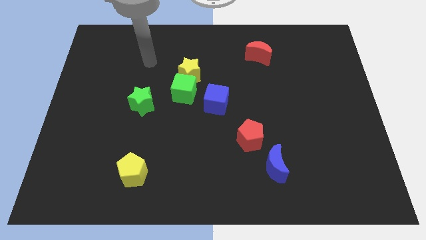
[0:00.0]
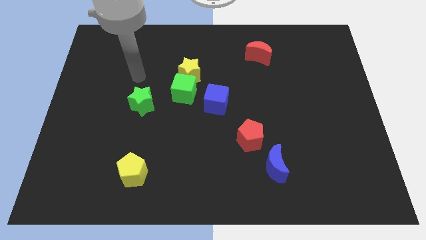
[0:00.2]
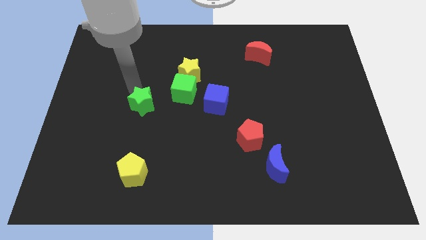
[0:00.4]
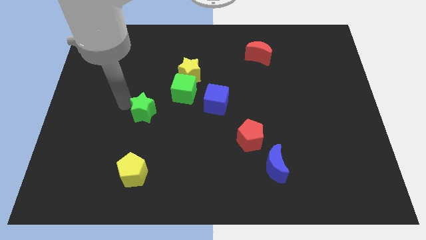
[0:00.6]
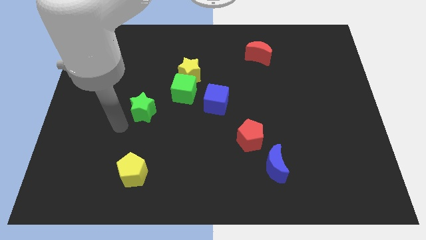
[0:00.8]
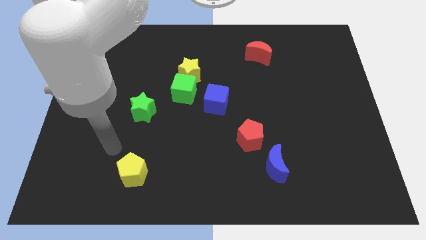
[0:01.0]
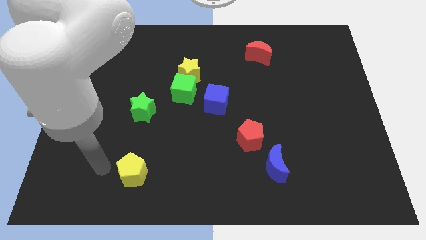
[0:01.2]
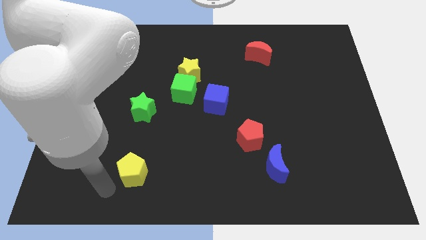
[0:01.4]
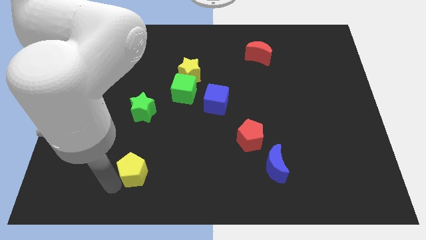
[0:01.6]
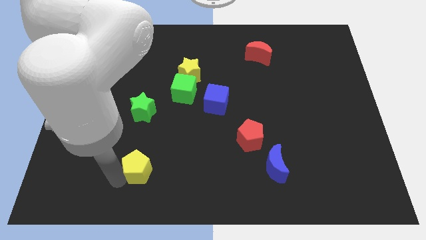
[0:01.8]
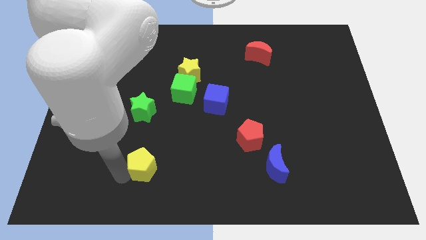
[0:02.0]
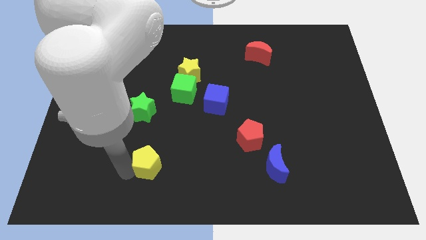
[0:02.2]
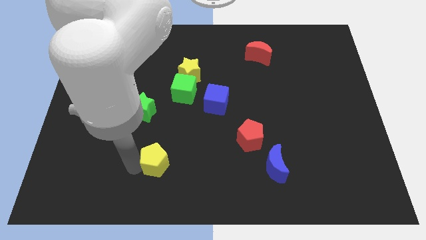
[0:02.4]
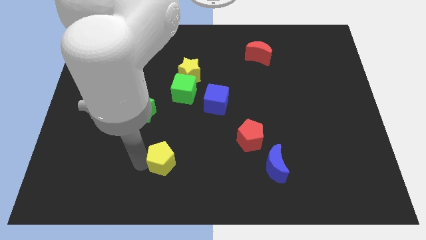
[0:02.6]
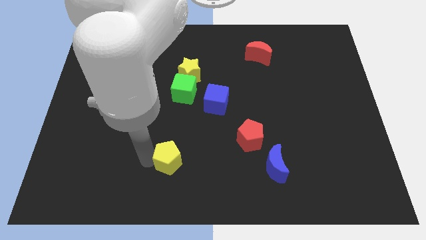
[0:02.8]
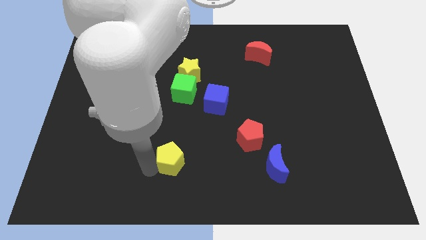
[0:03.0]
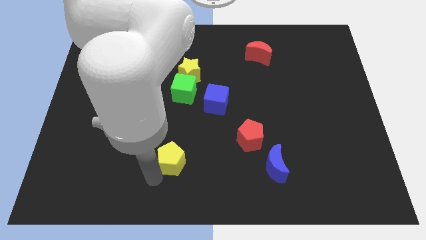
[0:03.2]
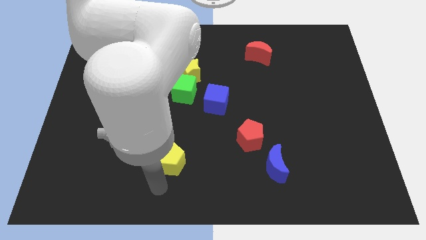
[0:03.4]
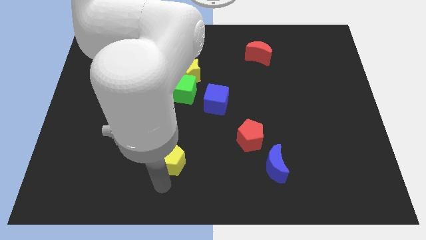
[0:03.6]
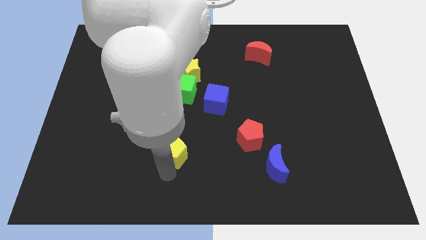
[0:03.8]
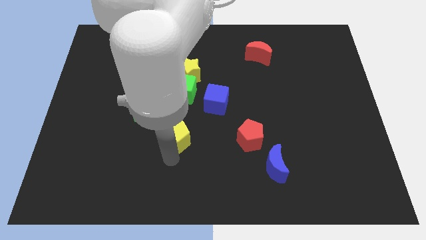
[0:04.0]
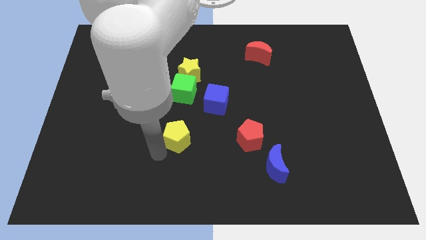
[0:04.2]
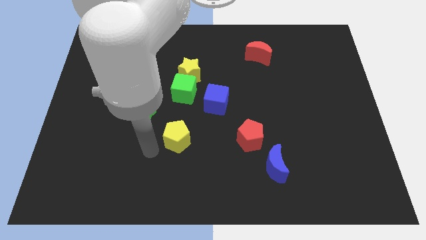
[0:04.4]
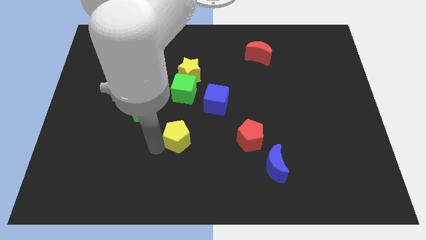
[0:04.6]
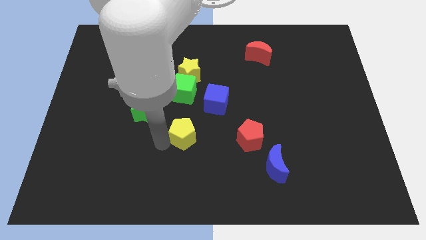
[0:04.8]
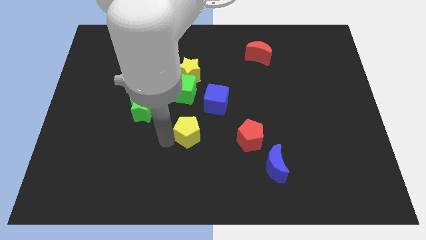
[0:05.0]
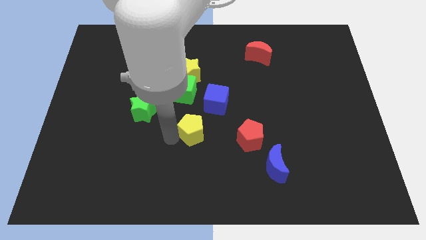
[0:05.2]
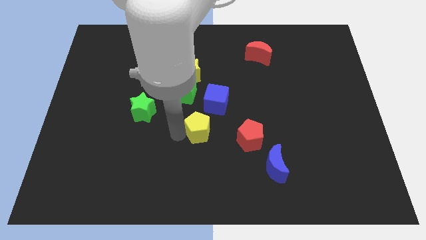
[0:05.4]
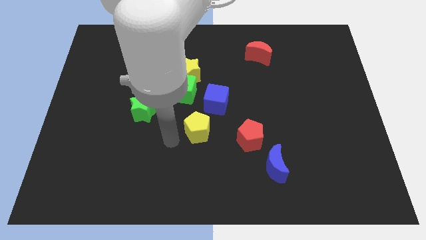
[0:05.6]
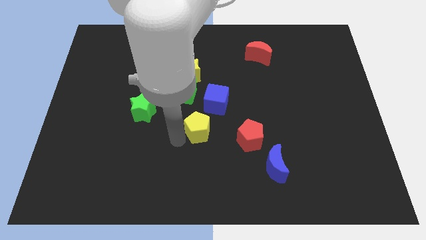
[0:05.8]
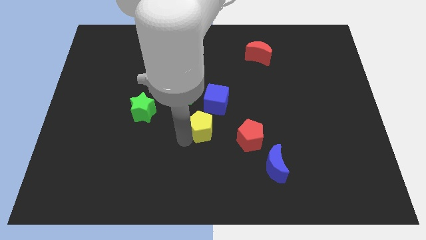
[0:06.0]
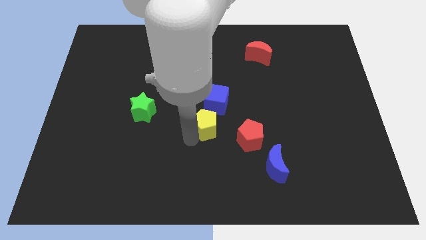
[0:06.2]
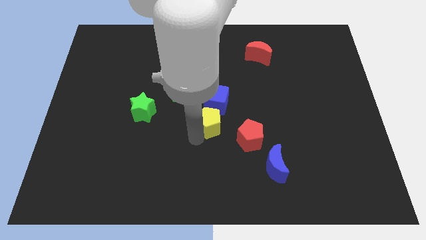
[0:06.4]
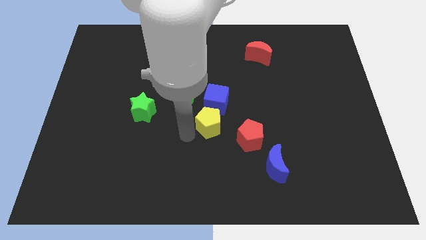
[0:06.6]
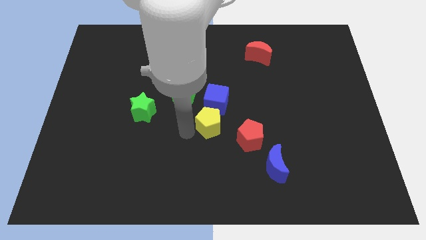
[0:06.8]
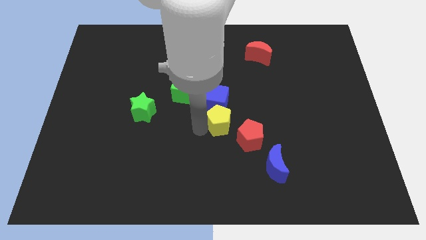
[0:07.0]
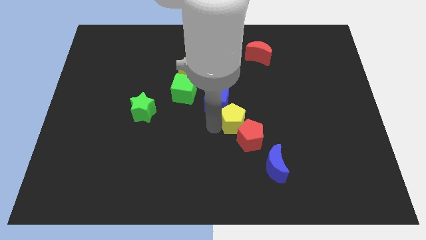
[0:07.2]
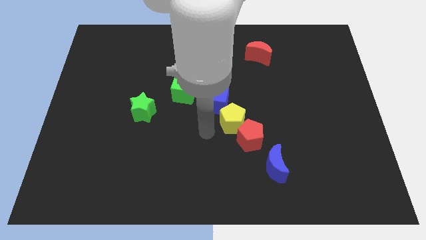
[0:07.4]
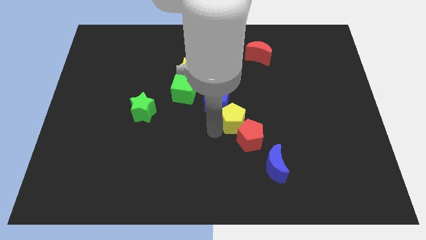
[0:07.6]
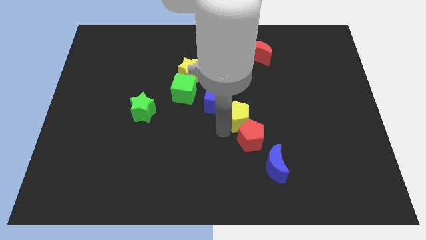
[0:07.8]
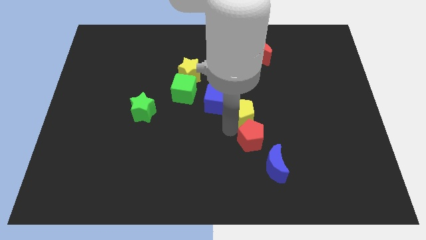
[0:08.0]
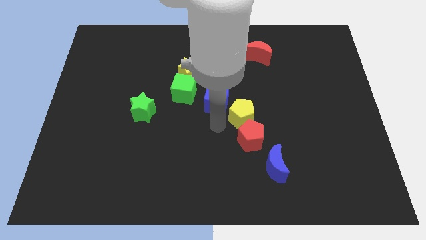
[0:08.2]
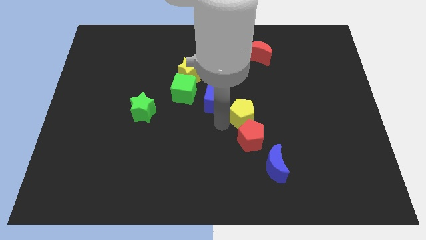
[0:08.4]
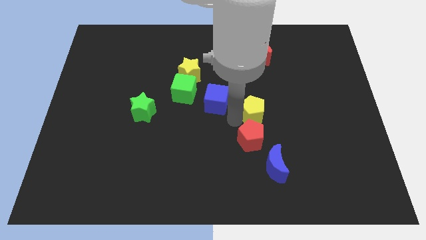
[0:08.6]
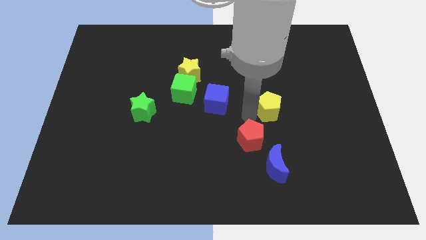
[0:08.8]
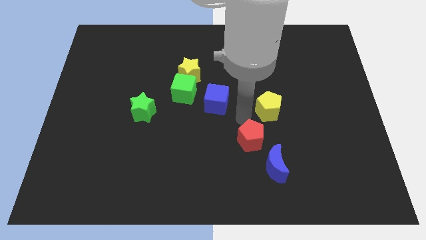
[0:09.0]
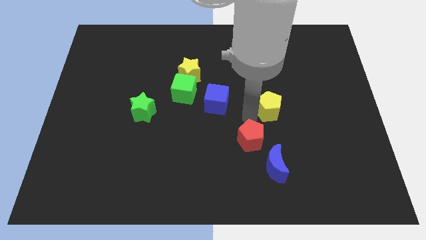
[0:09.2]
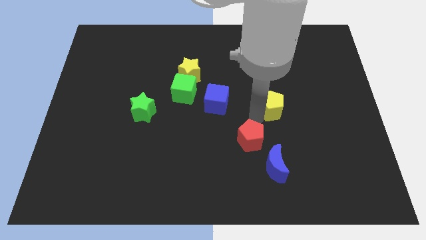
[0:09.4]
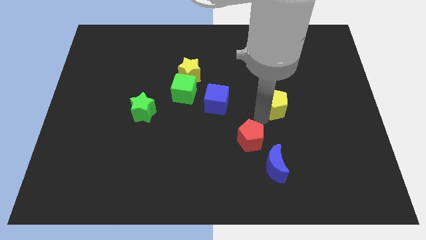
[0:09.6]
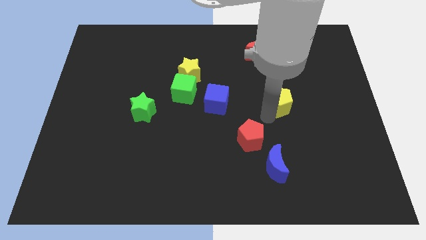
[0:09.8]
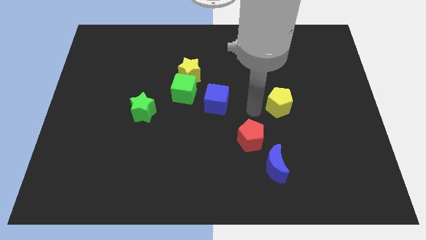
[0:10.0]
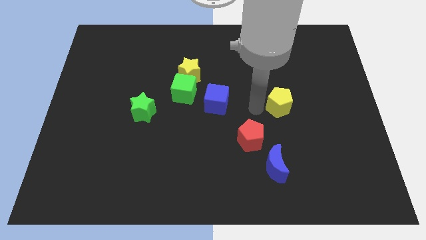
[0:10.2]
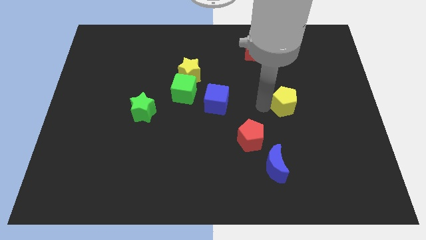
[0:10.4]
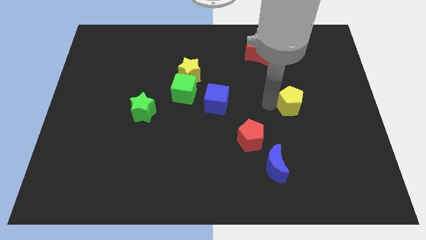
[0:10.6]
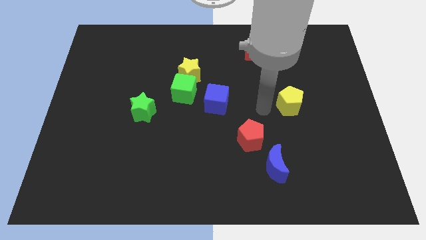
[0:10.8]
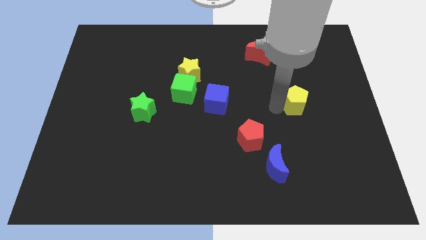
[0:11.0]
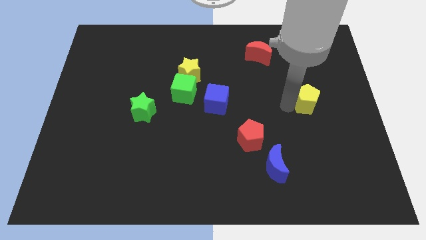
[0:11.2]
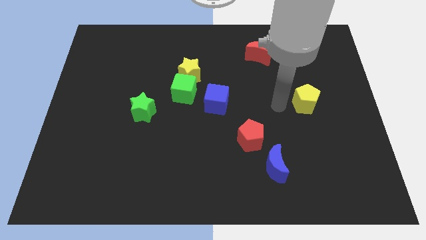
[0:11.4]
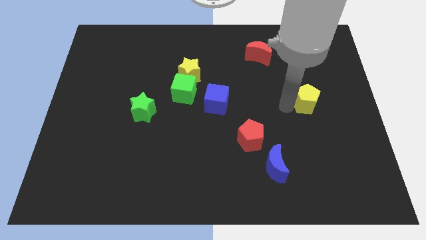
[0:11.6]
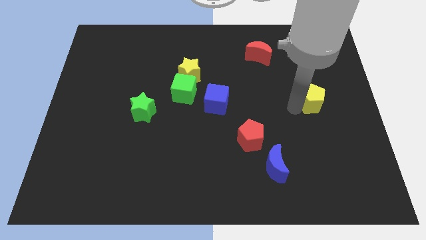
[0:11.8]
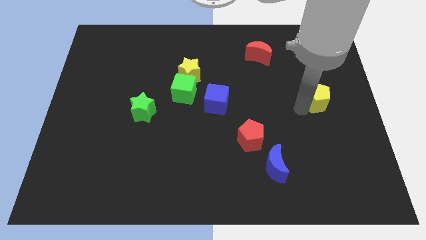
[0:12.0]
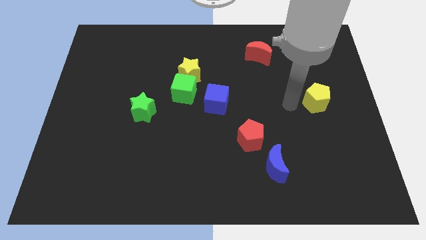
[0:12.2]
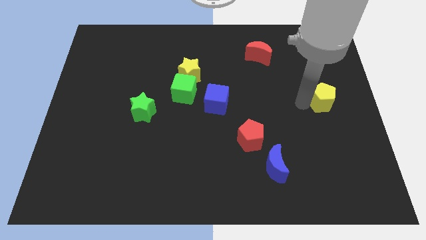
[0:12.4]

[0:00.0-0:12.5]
slide the yellow pentagon to the right side
